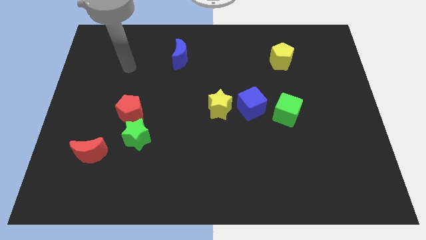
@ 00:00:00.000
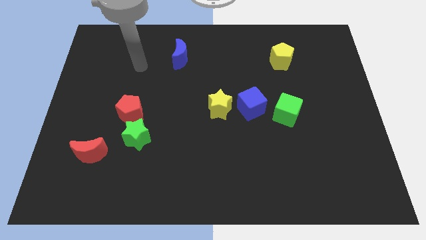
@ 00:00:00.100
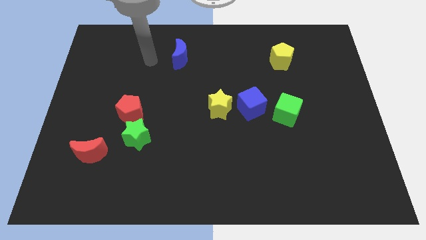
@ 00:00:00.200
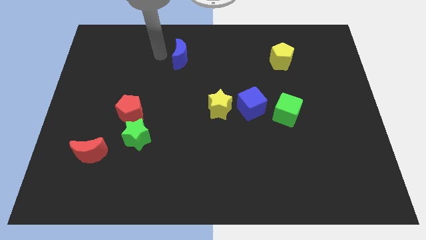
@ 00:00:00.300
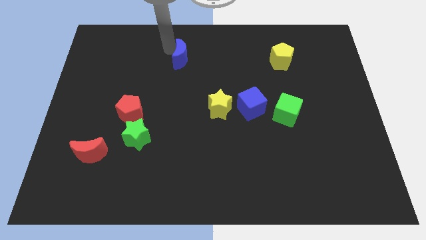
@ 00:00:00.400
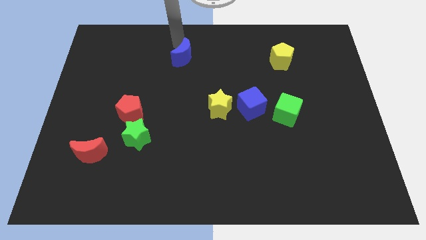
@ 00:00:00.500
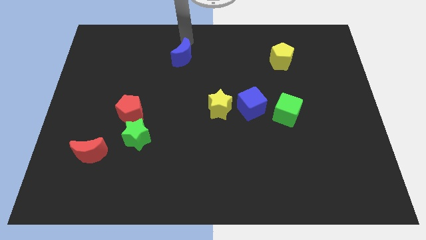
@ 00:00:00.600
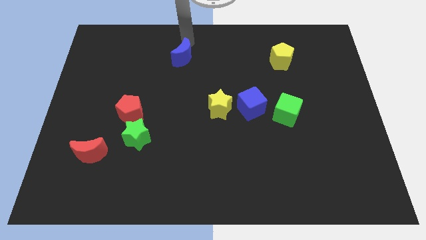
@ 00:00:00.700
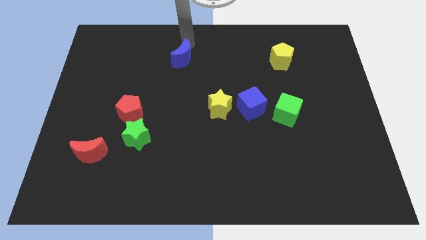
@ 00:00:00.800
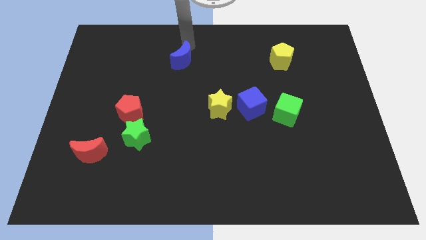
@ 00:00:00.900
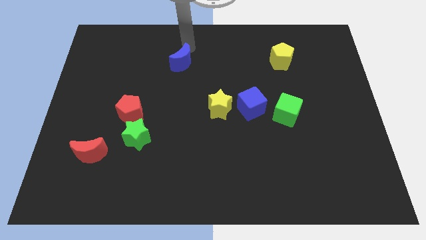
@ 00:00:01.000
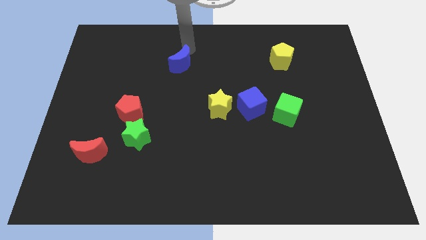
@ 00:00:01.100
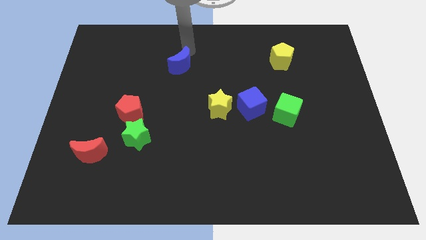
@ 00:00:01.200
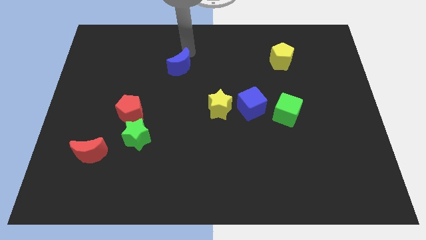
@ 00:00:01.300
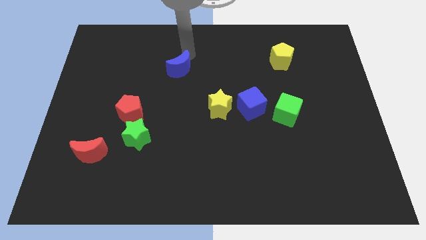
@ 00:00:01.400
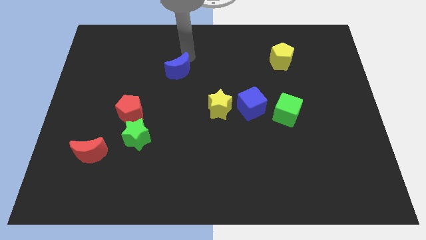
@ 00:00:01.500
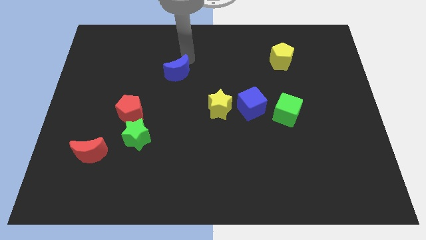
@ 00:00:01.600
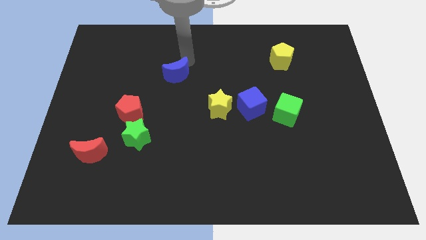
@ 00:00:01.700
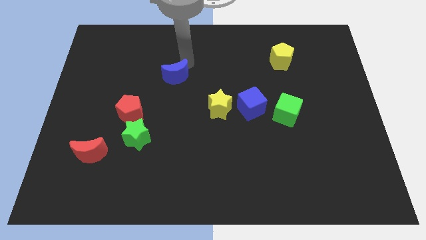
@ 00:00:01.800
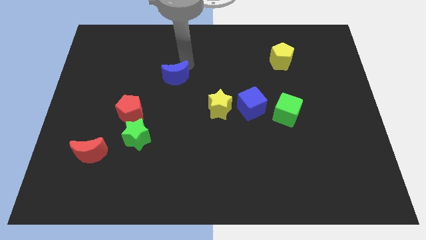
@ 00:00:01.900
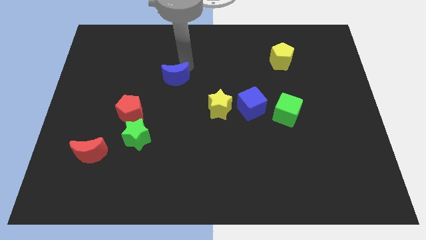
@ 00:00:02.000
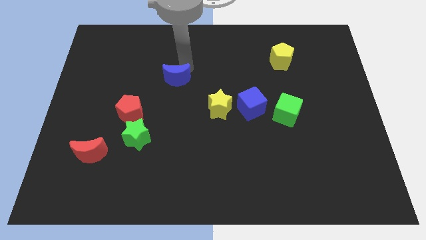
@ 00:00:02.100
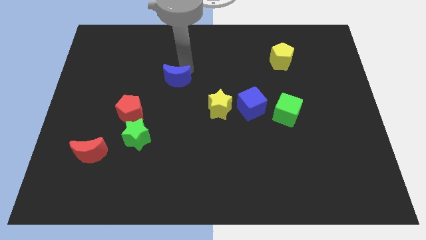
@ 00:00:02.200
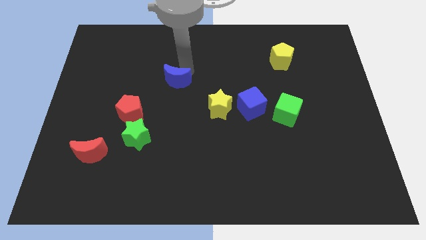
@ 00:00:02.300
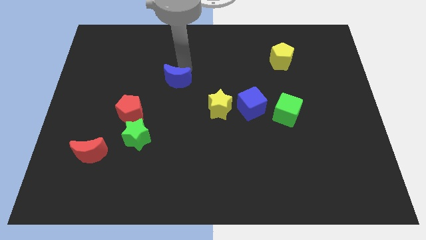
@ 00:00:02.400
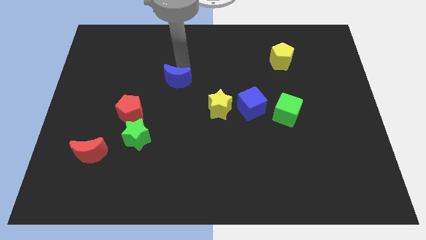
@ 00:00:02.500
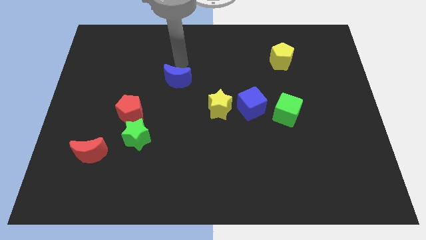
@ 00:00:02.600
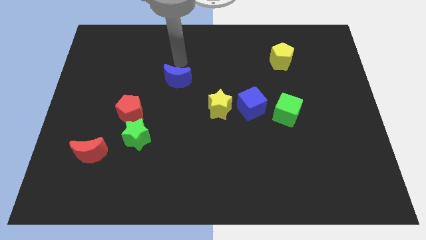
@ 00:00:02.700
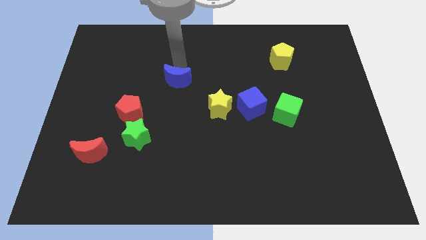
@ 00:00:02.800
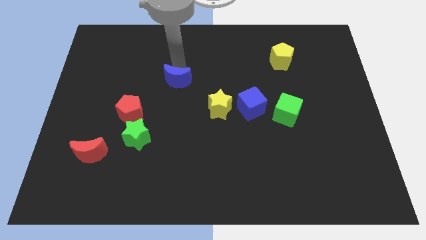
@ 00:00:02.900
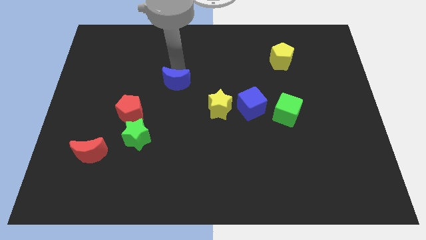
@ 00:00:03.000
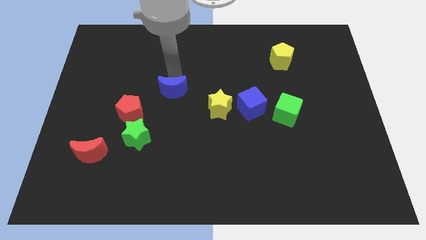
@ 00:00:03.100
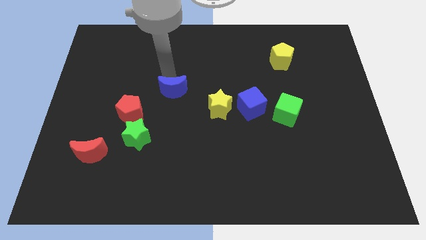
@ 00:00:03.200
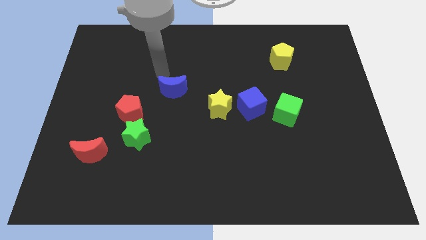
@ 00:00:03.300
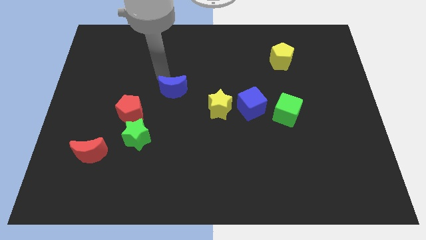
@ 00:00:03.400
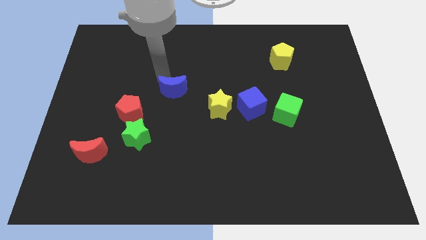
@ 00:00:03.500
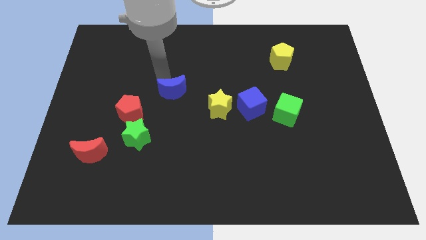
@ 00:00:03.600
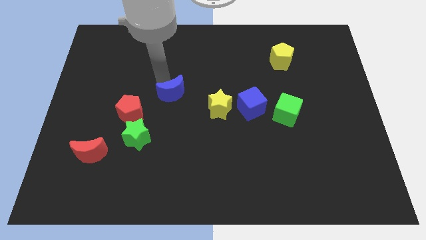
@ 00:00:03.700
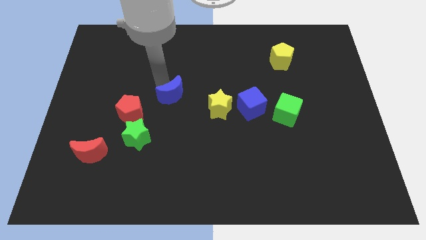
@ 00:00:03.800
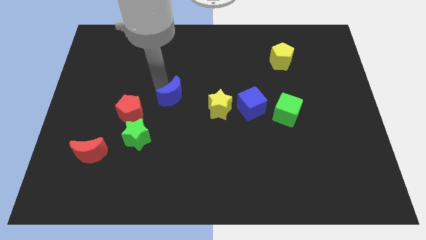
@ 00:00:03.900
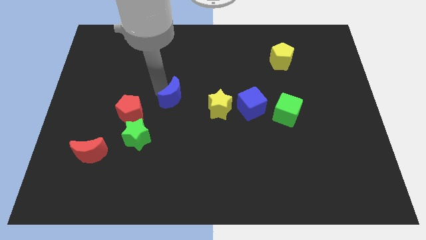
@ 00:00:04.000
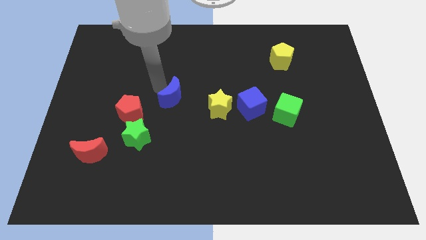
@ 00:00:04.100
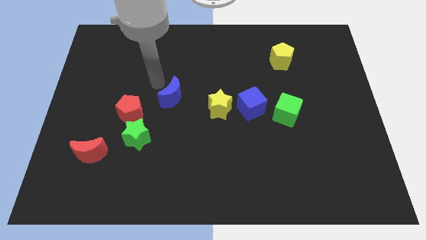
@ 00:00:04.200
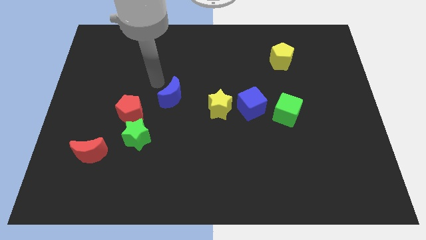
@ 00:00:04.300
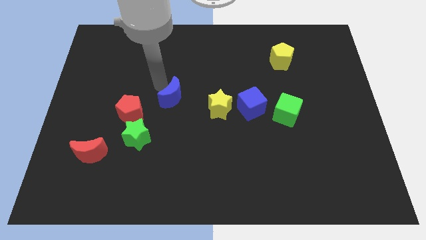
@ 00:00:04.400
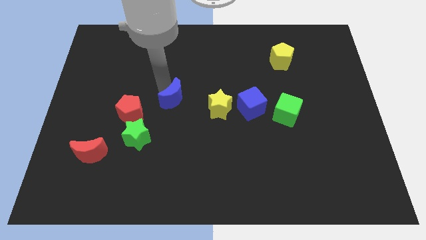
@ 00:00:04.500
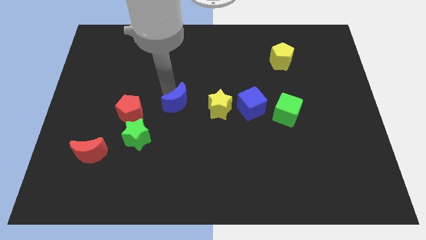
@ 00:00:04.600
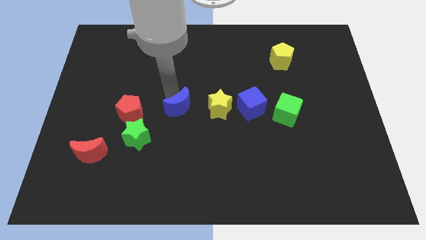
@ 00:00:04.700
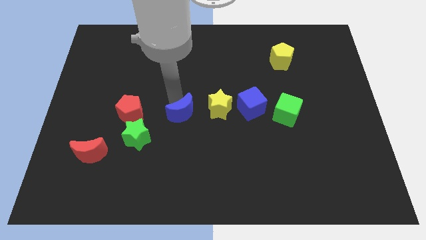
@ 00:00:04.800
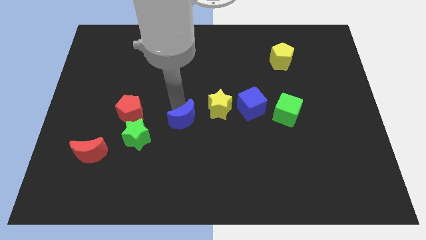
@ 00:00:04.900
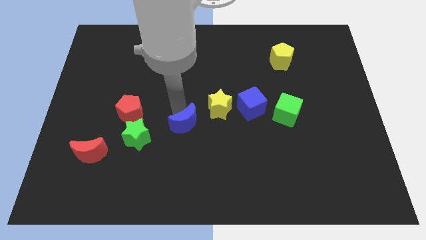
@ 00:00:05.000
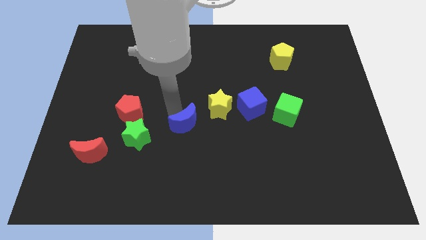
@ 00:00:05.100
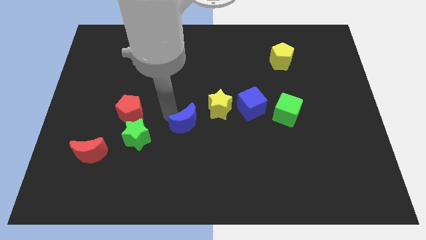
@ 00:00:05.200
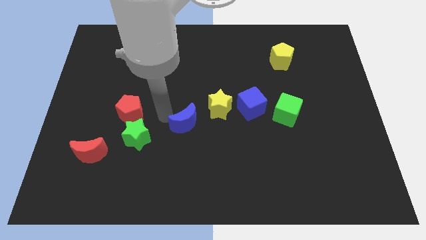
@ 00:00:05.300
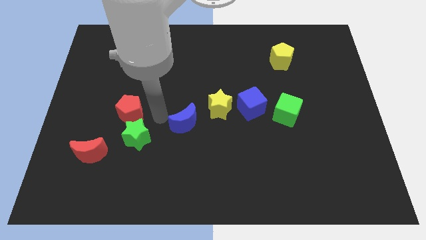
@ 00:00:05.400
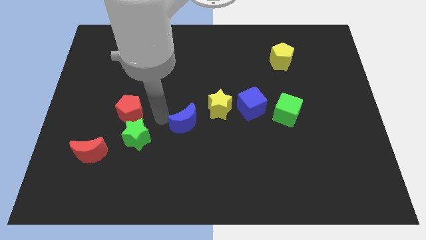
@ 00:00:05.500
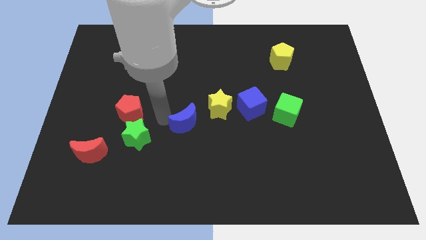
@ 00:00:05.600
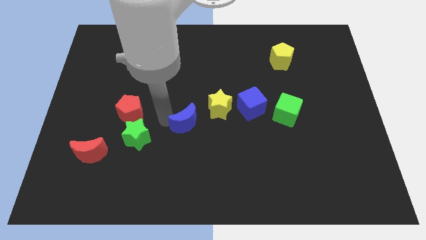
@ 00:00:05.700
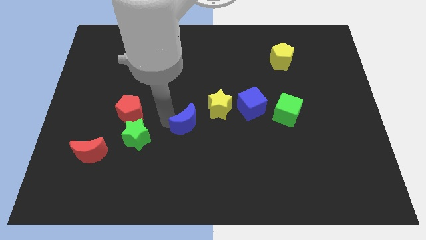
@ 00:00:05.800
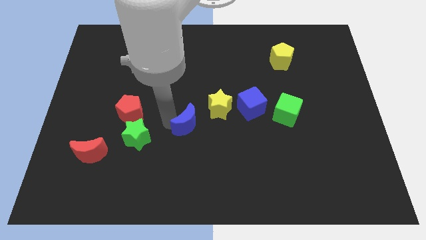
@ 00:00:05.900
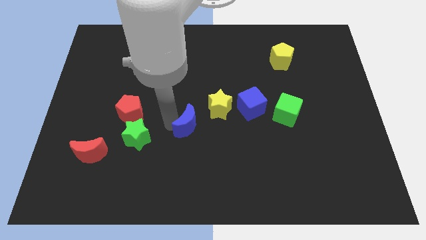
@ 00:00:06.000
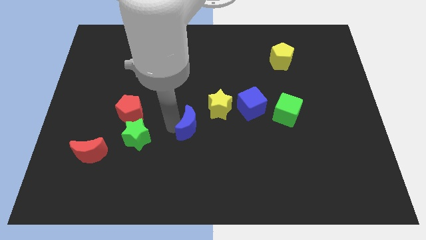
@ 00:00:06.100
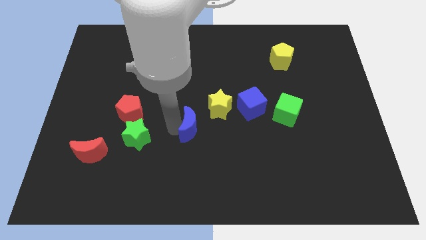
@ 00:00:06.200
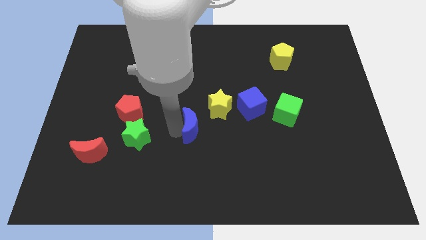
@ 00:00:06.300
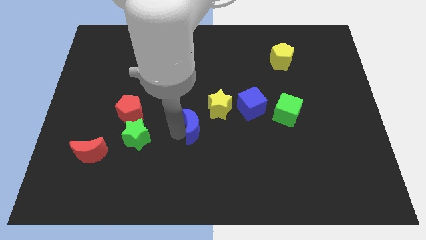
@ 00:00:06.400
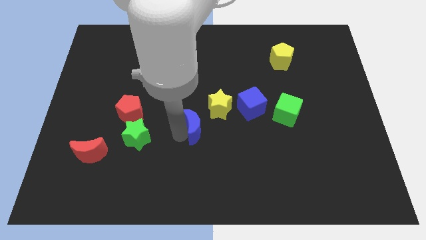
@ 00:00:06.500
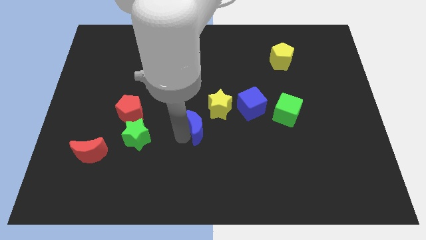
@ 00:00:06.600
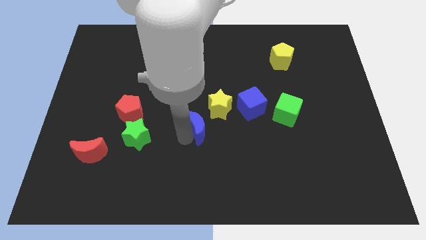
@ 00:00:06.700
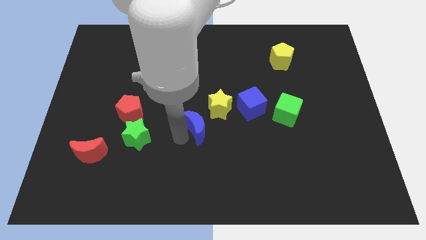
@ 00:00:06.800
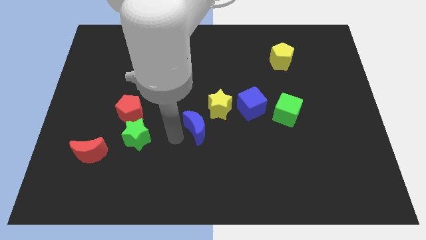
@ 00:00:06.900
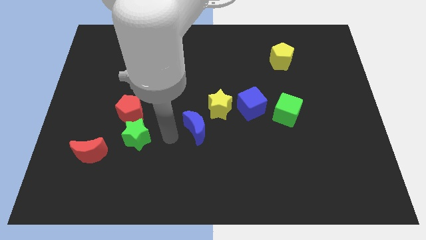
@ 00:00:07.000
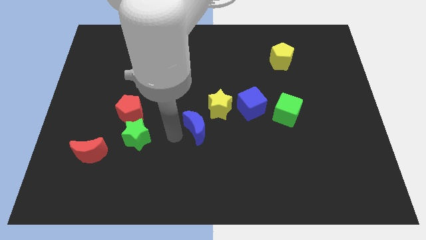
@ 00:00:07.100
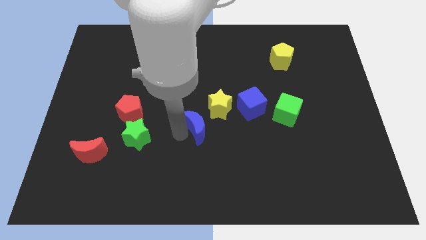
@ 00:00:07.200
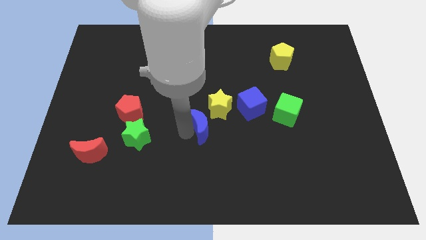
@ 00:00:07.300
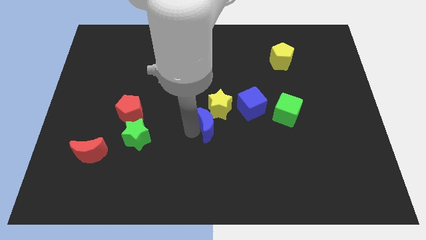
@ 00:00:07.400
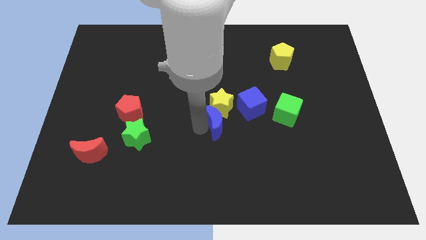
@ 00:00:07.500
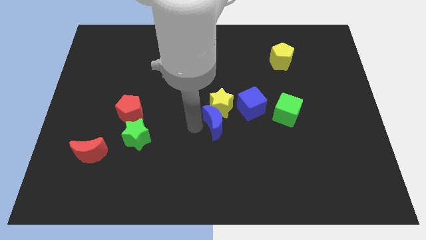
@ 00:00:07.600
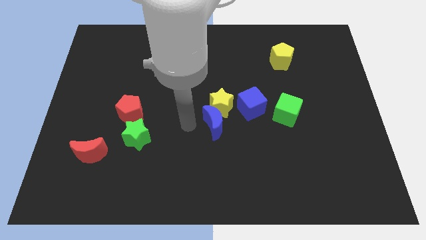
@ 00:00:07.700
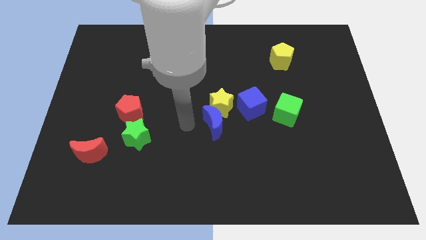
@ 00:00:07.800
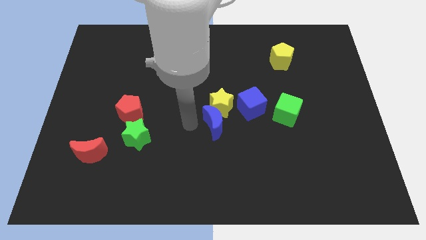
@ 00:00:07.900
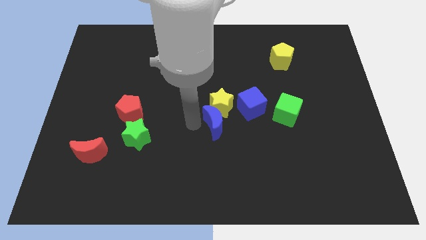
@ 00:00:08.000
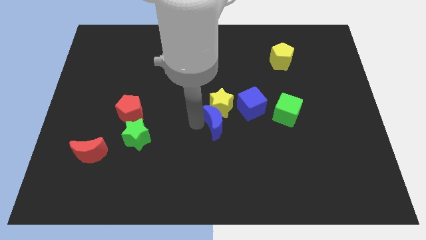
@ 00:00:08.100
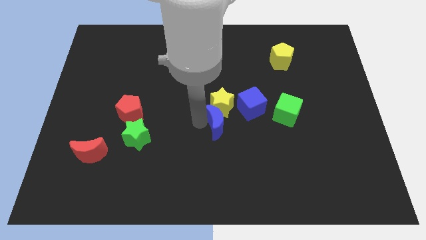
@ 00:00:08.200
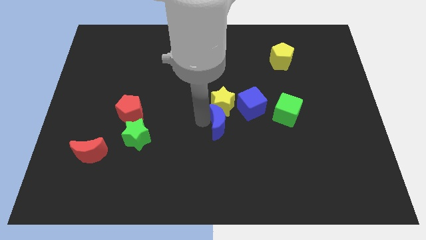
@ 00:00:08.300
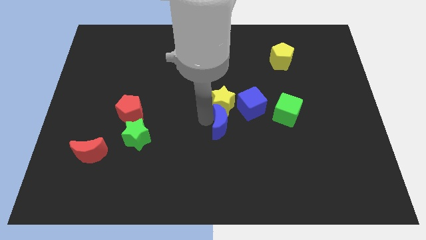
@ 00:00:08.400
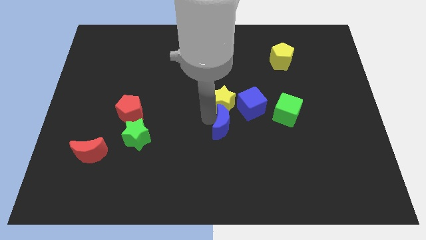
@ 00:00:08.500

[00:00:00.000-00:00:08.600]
move the blue moon downwards and then to the right
